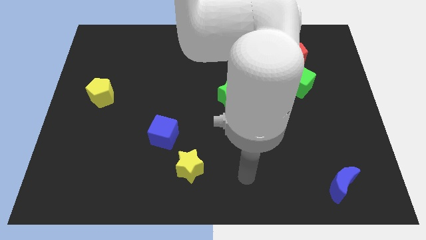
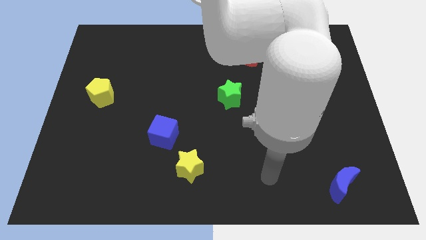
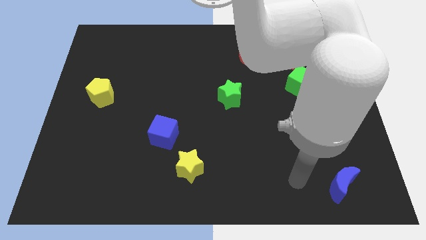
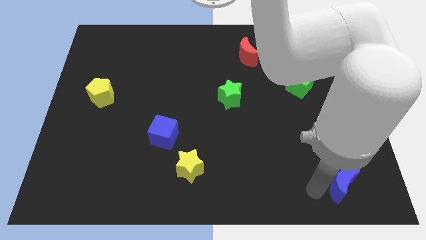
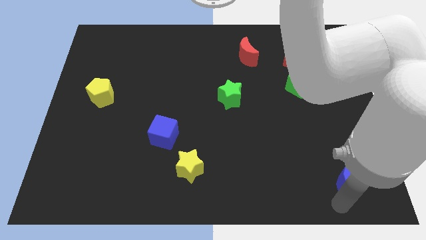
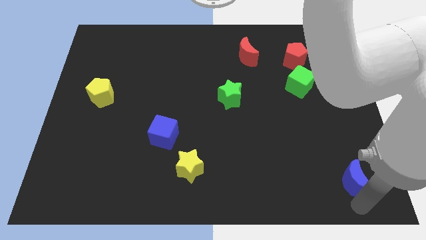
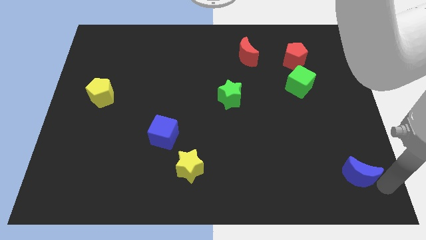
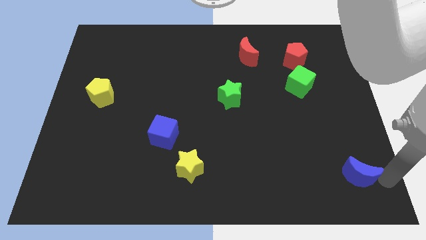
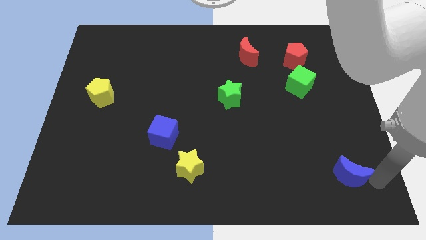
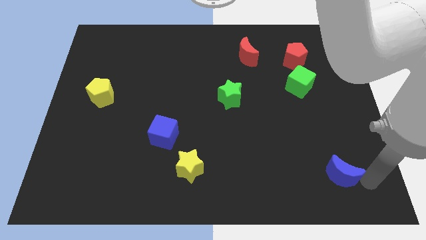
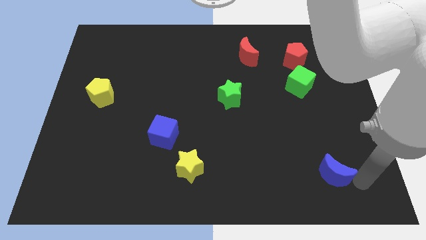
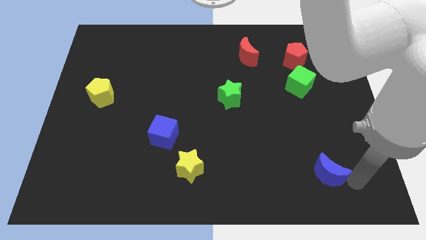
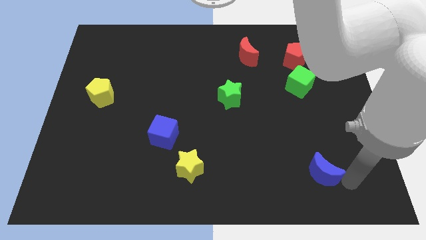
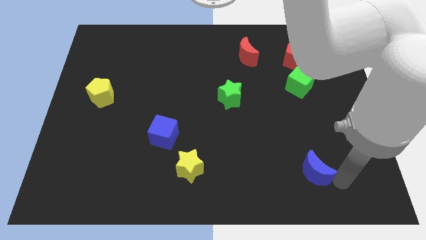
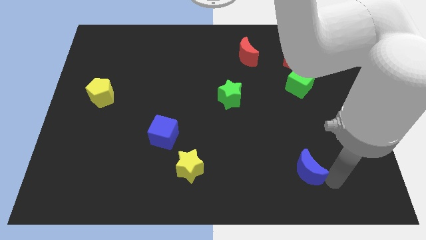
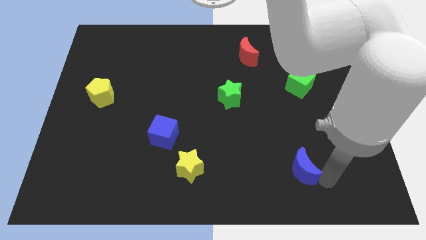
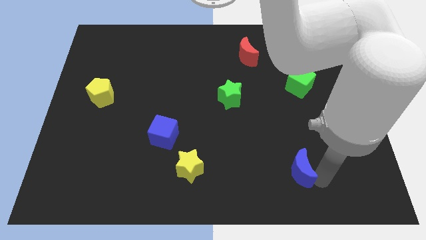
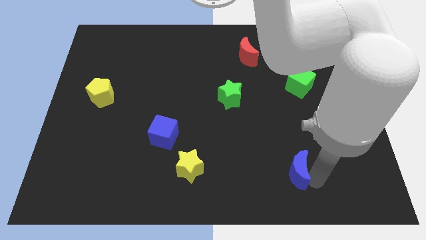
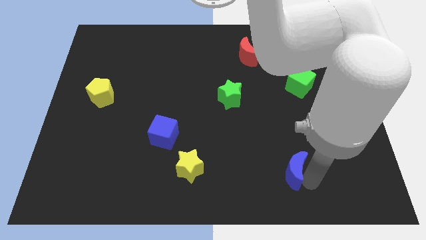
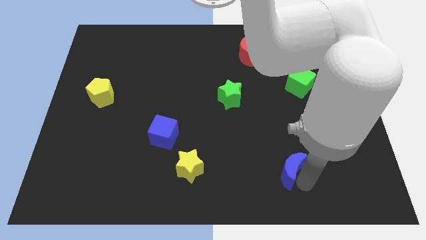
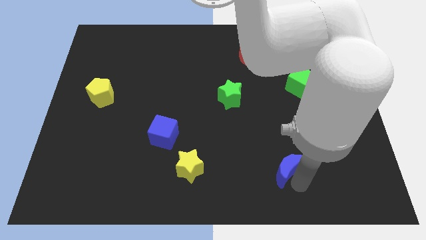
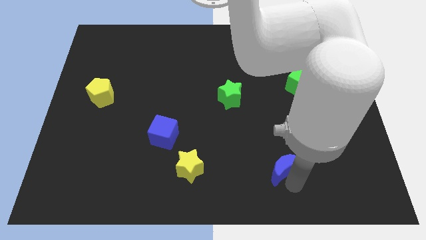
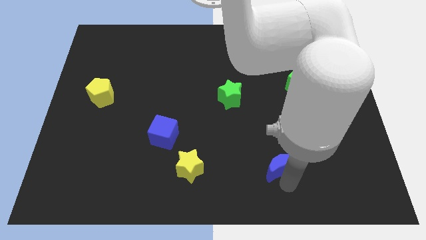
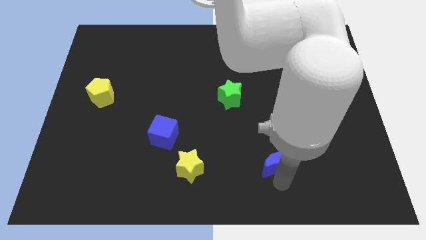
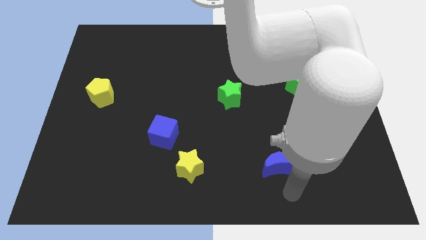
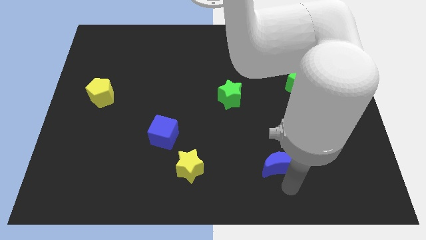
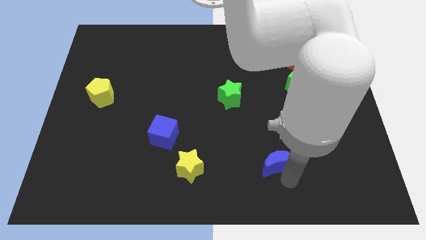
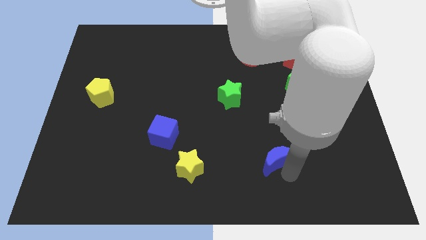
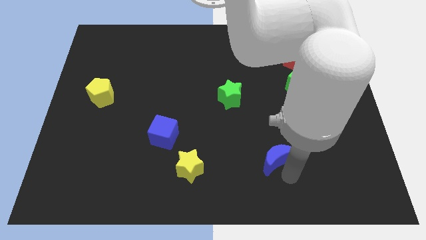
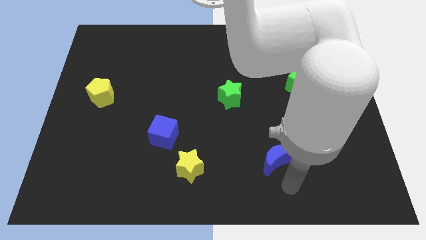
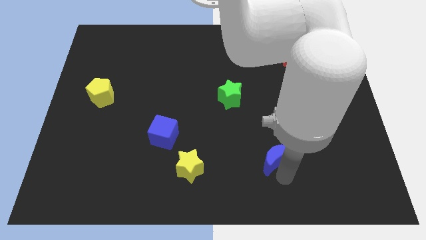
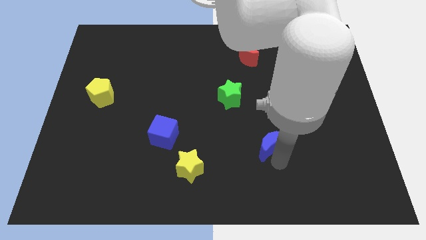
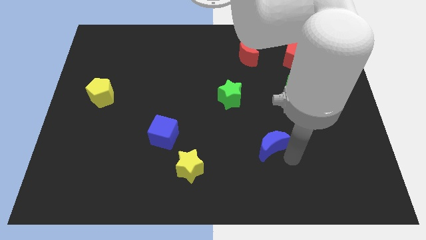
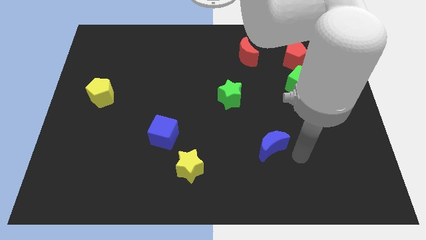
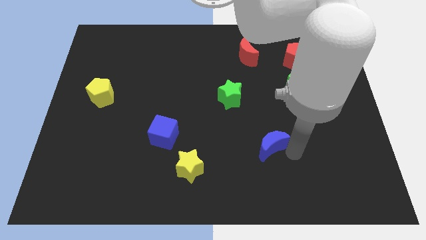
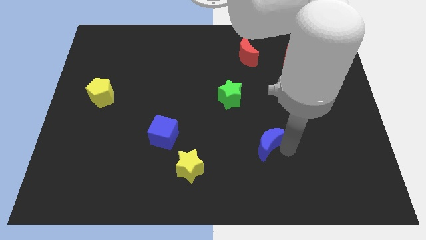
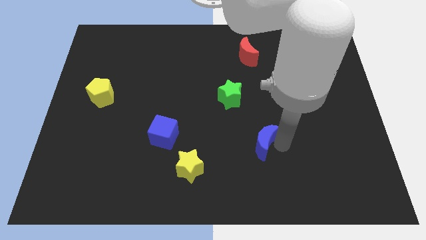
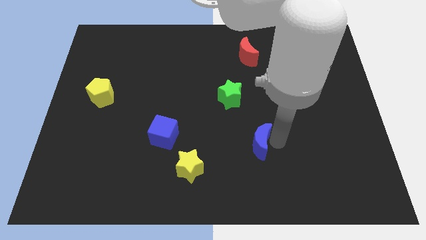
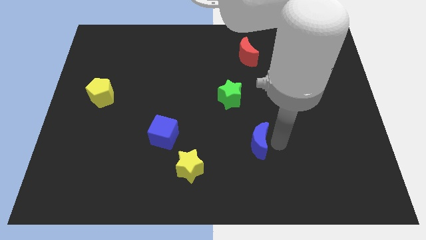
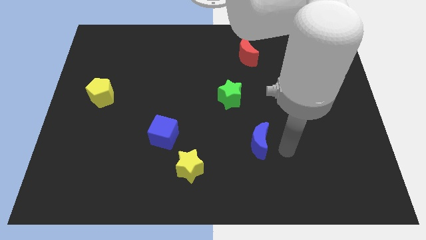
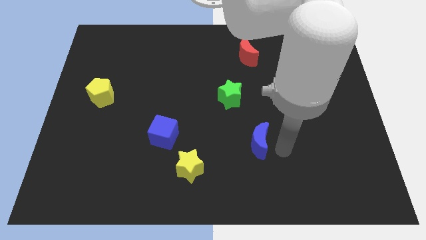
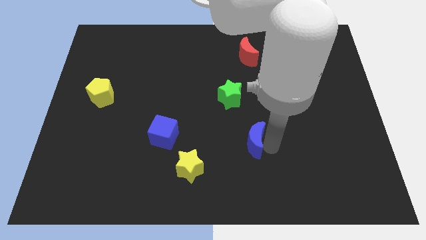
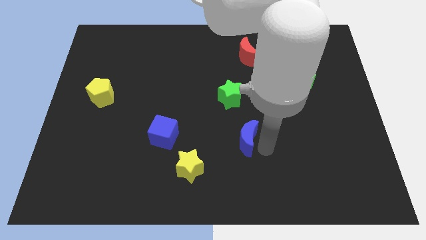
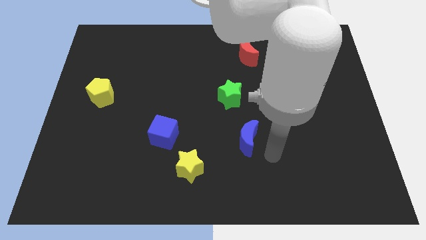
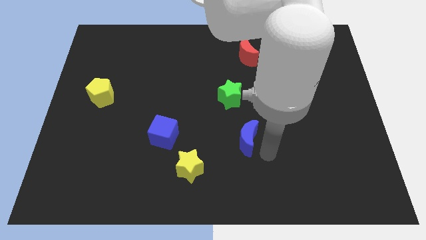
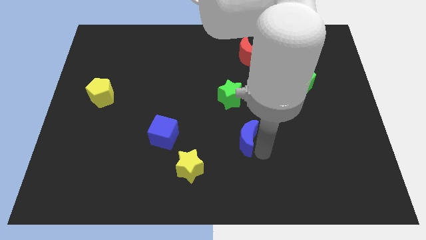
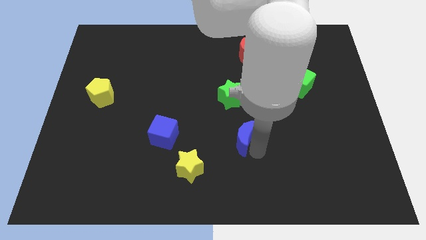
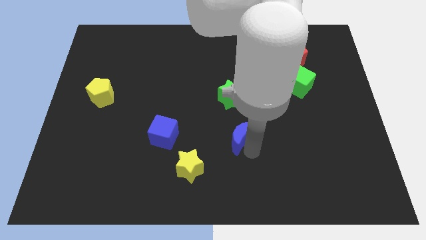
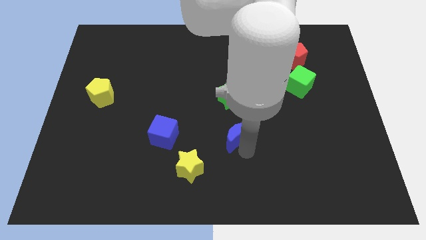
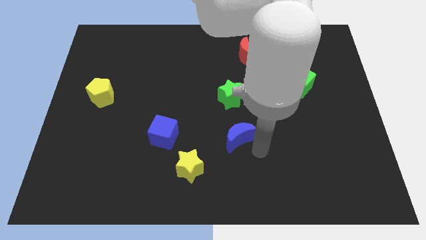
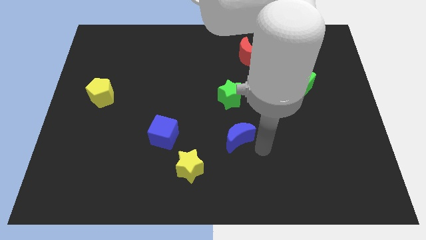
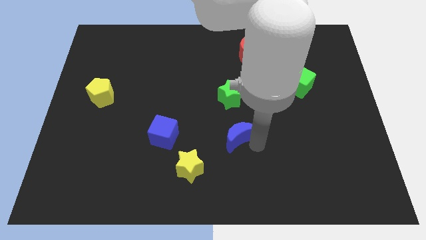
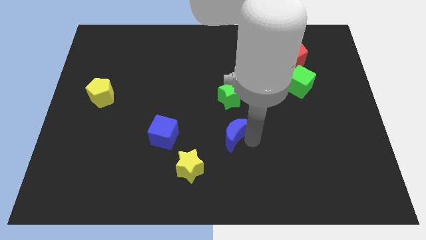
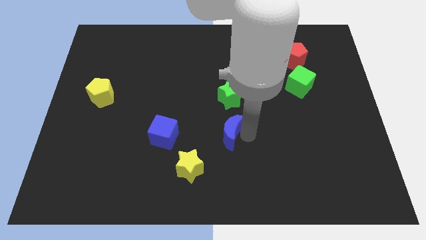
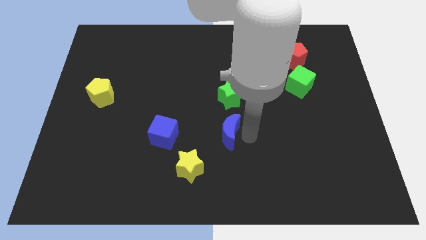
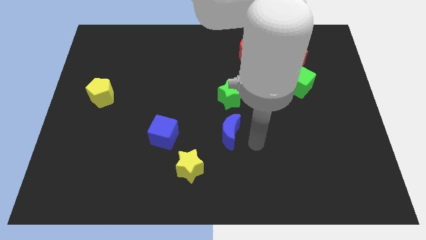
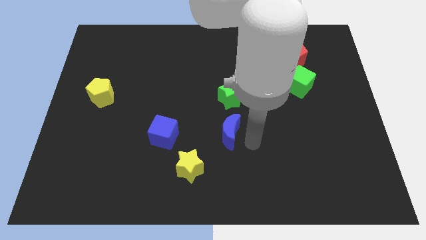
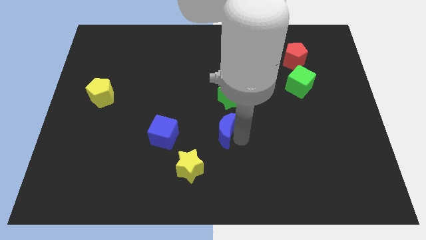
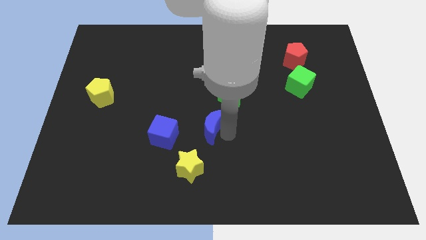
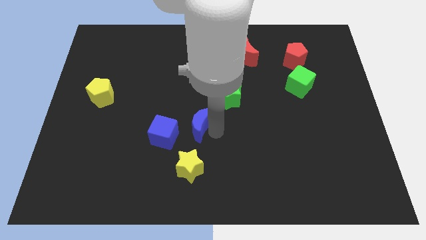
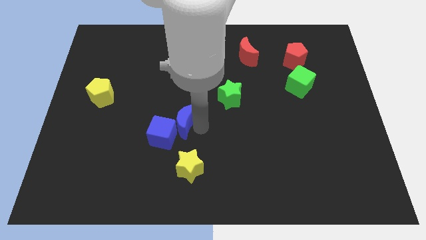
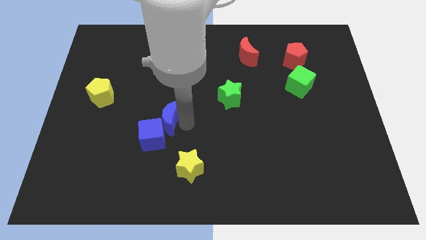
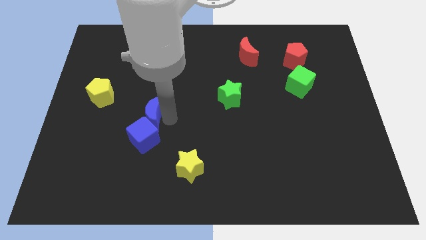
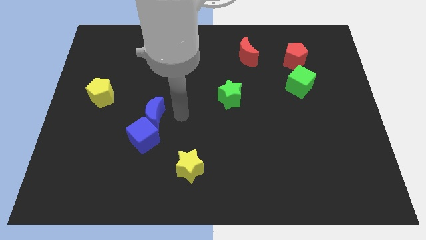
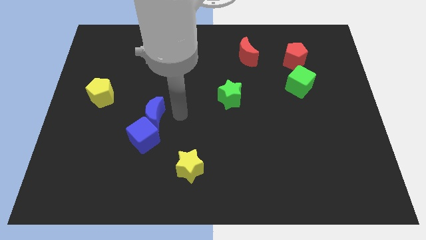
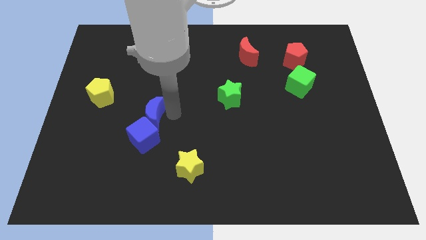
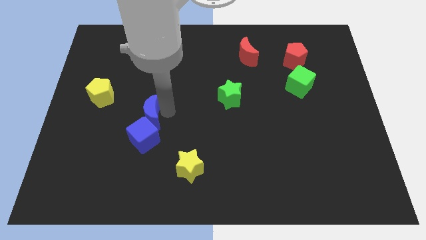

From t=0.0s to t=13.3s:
slide the blue moon to the top left side of the blue cube

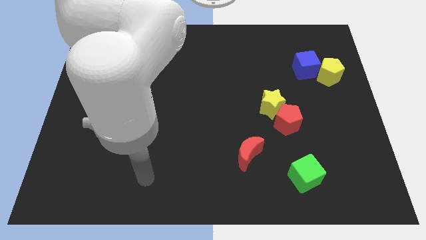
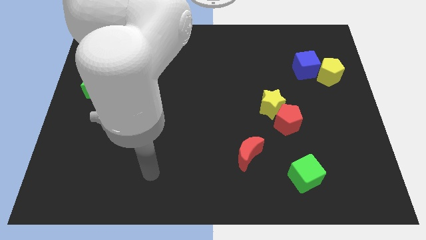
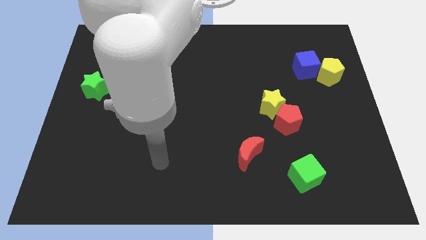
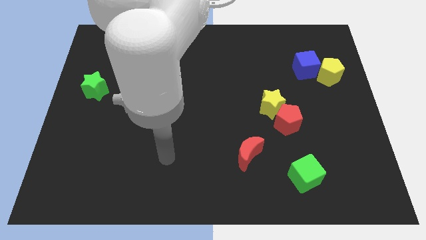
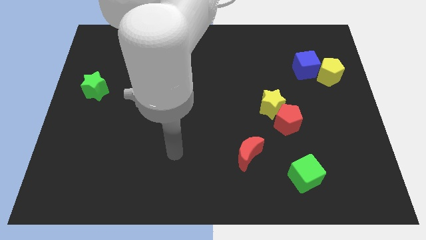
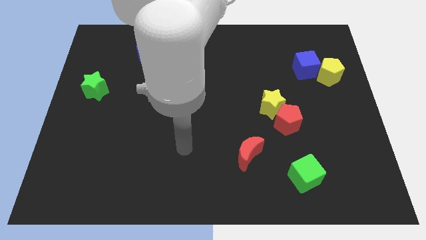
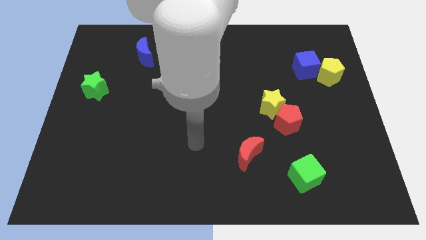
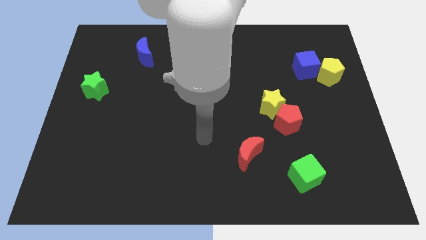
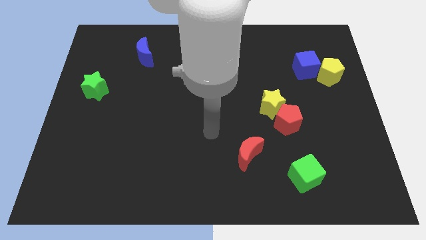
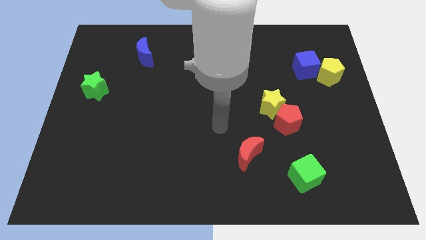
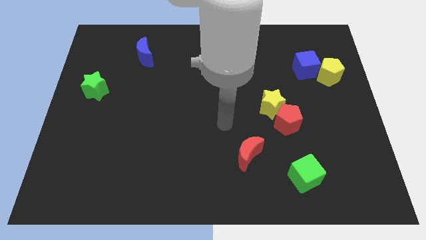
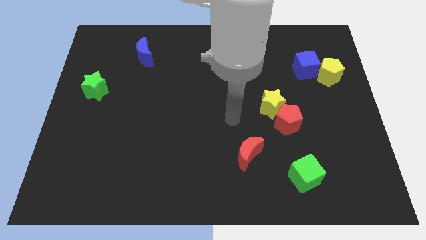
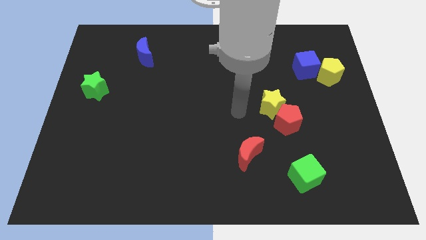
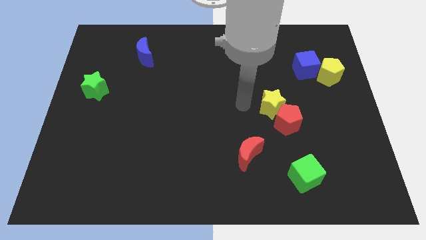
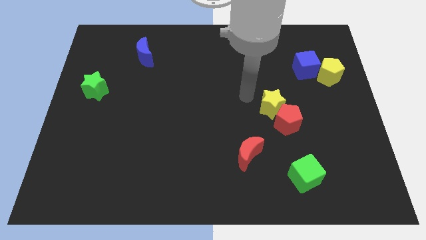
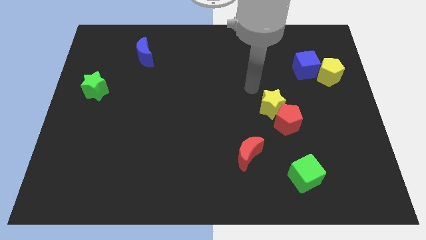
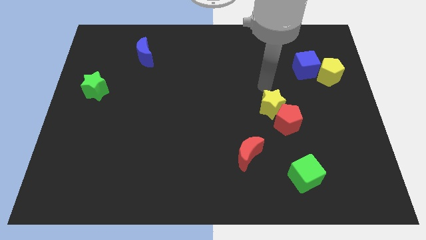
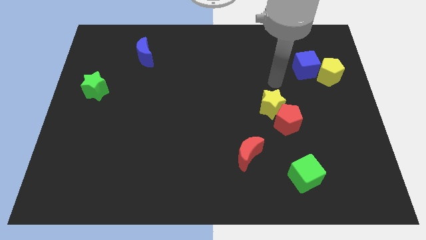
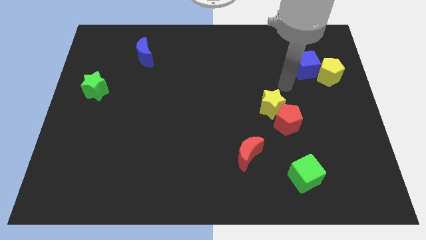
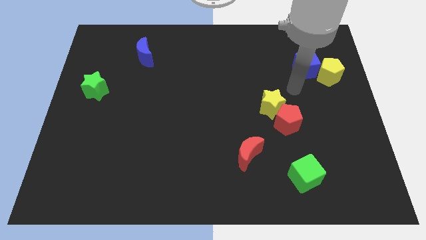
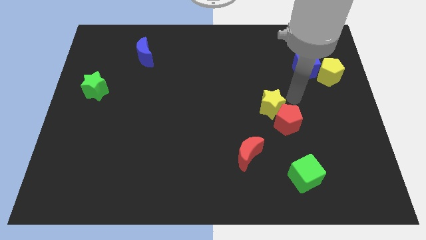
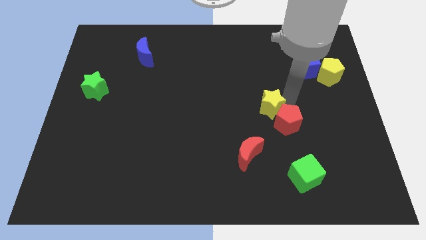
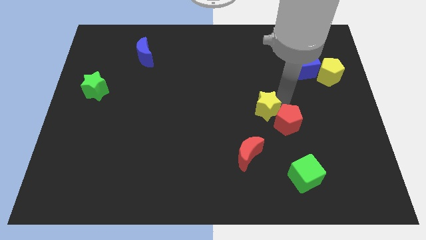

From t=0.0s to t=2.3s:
push the yellow star to the top of the red moon
